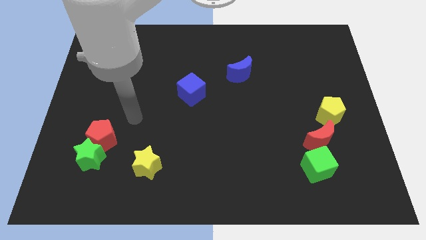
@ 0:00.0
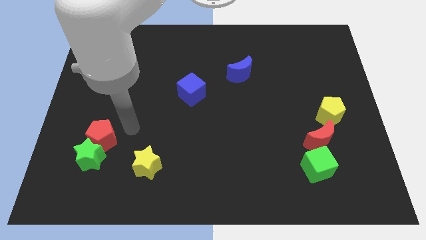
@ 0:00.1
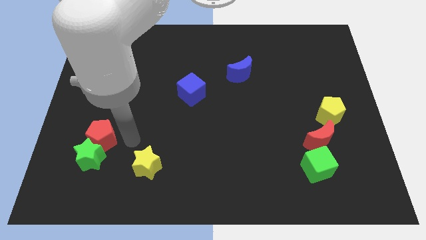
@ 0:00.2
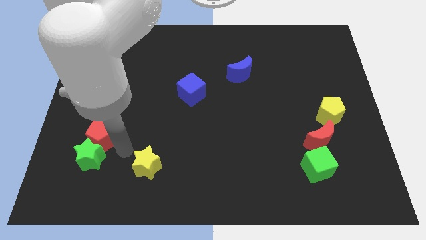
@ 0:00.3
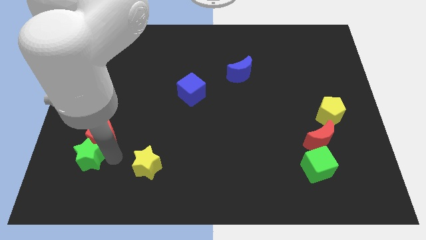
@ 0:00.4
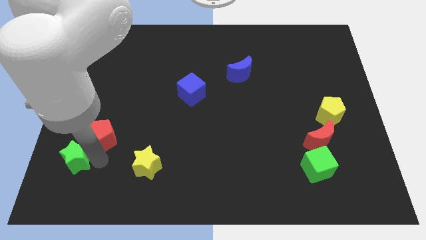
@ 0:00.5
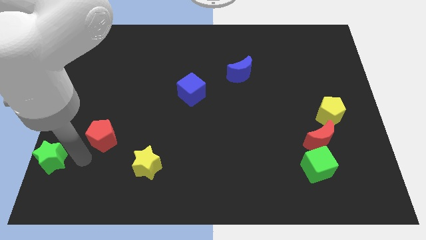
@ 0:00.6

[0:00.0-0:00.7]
separate the red pentagon from the green star

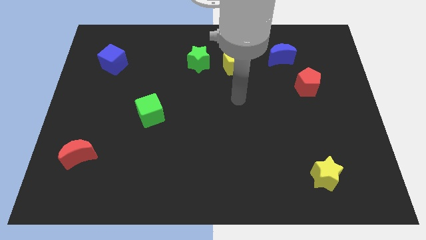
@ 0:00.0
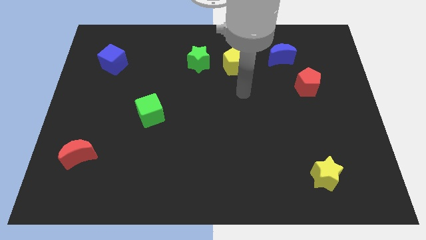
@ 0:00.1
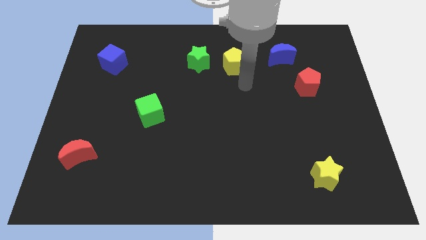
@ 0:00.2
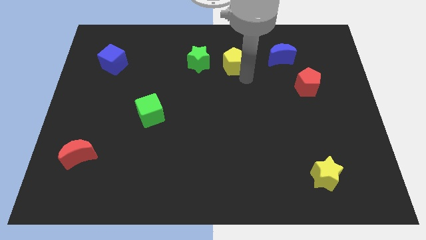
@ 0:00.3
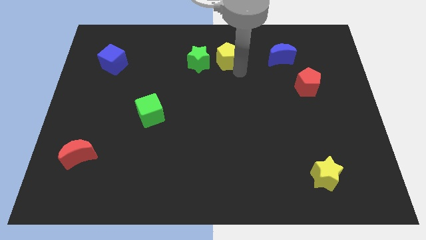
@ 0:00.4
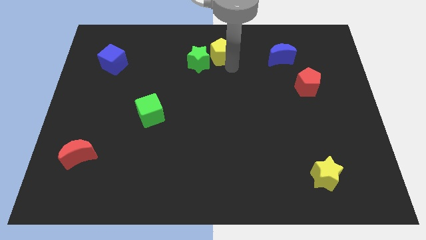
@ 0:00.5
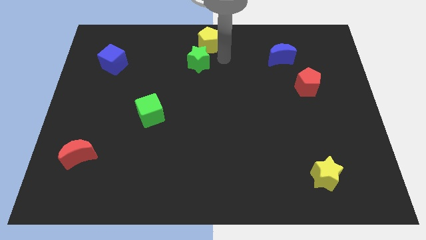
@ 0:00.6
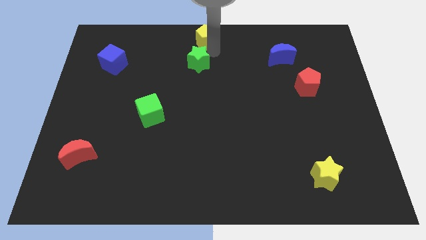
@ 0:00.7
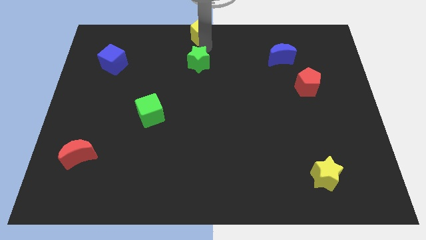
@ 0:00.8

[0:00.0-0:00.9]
move the green star away from the yellow pentagon

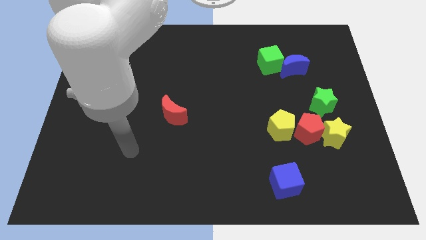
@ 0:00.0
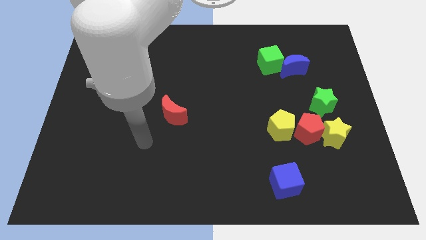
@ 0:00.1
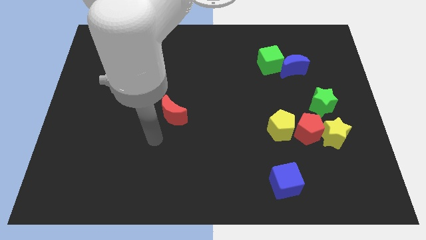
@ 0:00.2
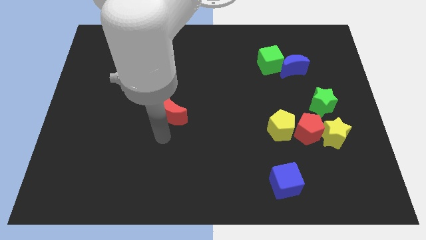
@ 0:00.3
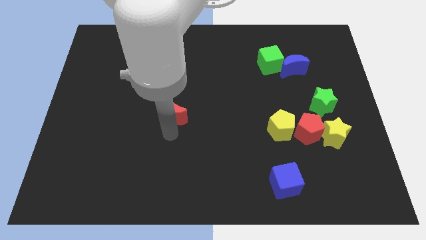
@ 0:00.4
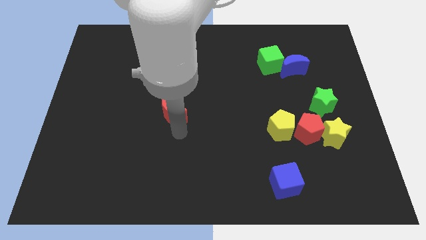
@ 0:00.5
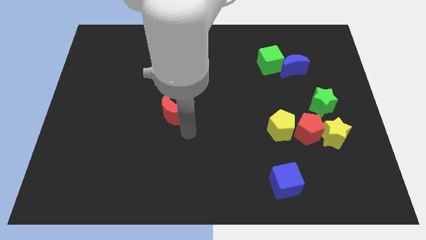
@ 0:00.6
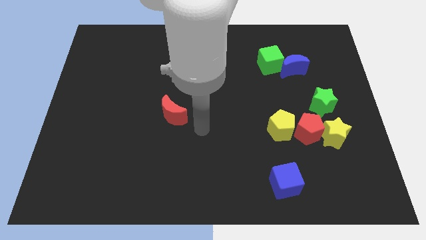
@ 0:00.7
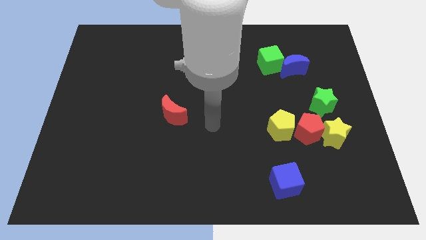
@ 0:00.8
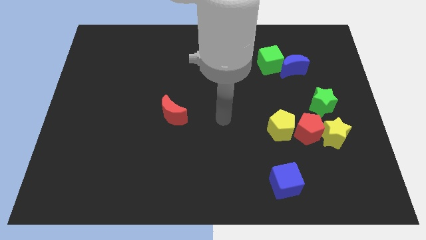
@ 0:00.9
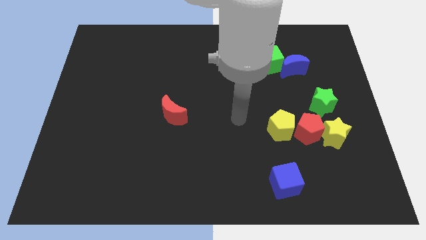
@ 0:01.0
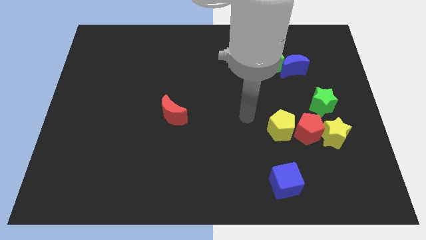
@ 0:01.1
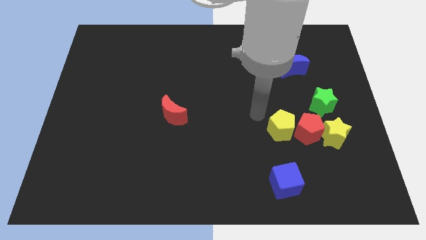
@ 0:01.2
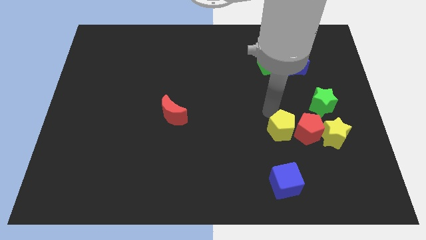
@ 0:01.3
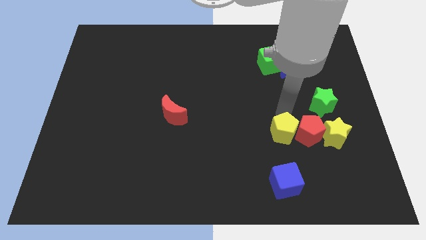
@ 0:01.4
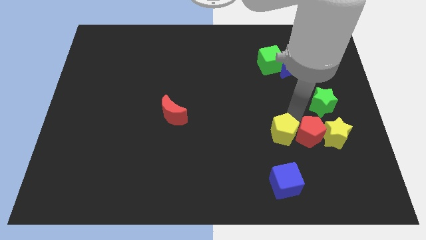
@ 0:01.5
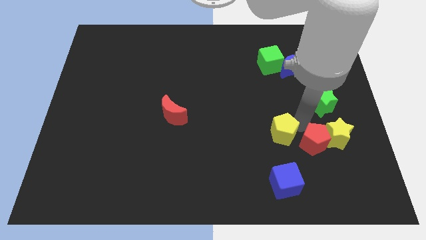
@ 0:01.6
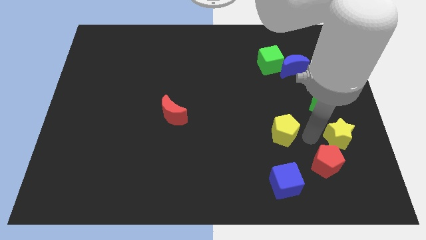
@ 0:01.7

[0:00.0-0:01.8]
pull the yellow pentagon apart from the red pentagon

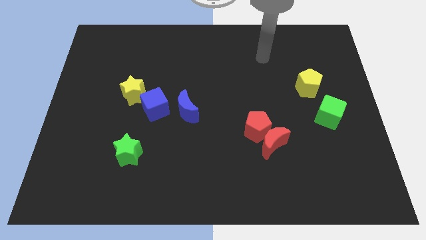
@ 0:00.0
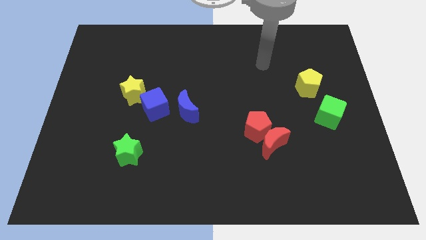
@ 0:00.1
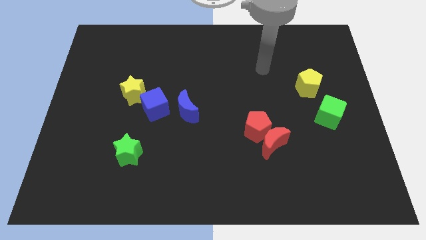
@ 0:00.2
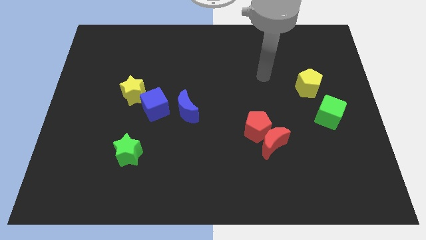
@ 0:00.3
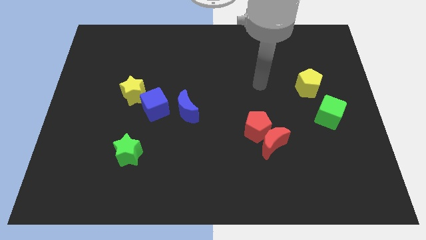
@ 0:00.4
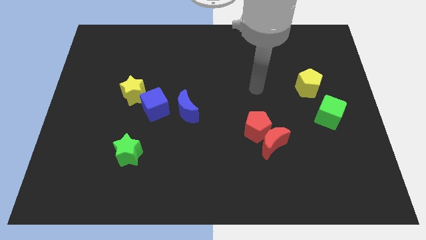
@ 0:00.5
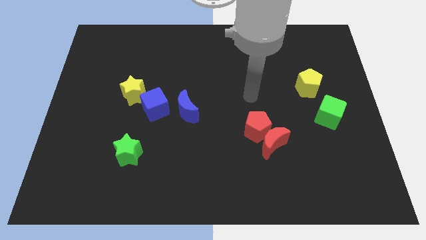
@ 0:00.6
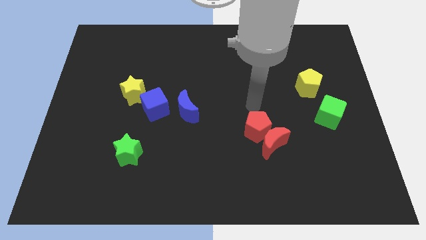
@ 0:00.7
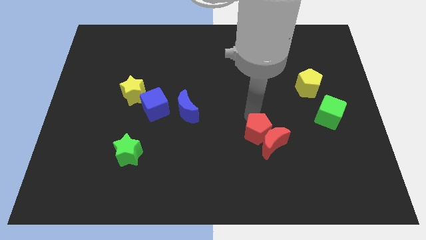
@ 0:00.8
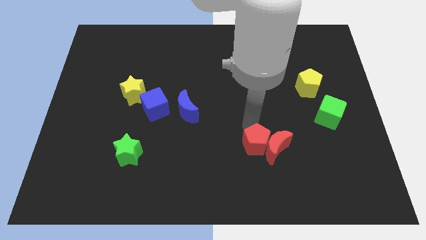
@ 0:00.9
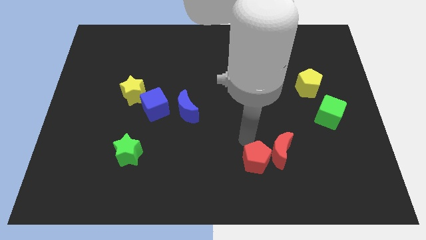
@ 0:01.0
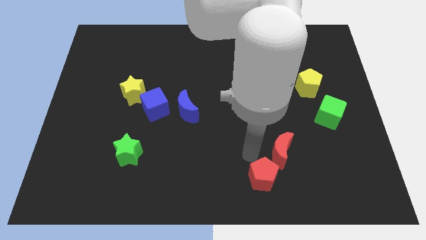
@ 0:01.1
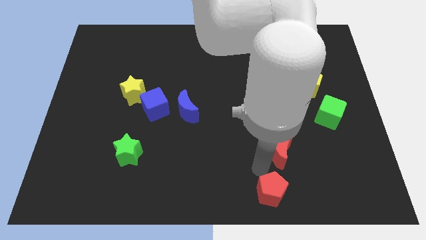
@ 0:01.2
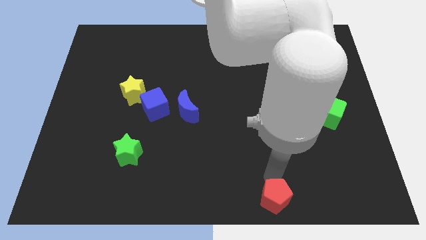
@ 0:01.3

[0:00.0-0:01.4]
separate the red moon from the red pentagon

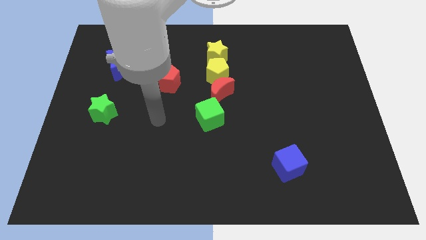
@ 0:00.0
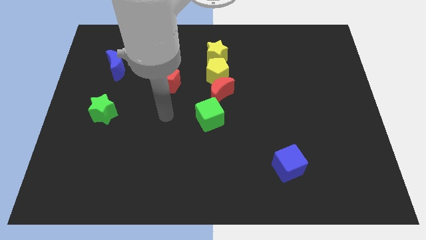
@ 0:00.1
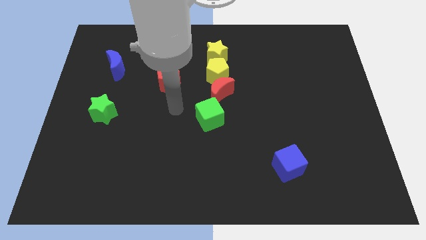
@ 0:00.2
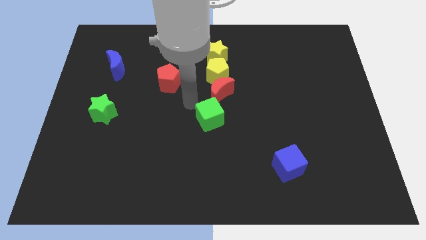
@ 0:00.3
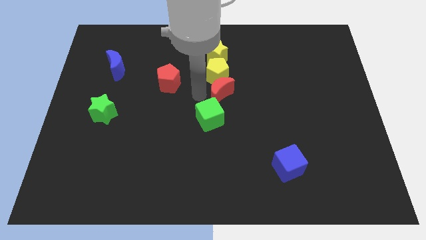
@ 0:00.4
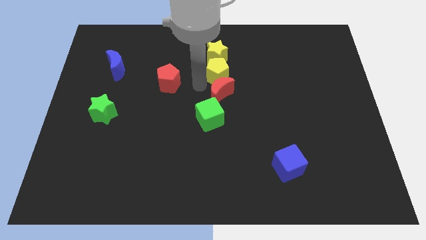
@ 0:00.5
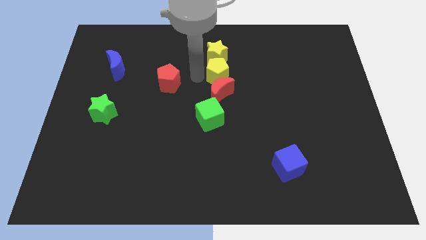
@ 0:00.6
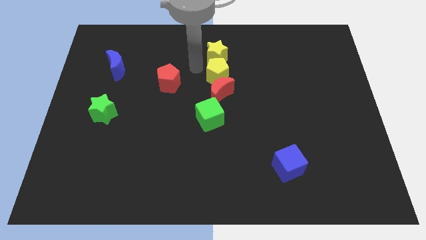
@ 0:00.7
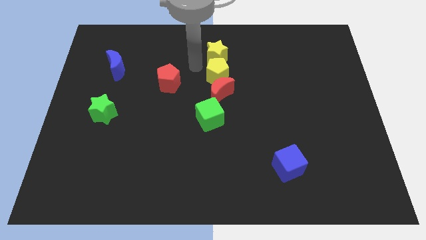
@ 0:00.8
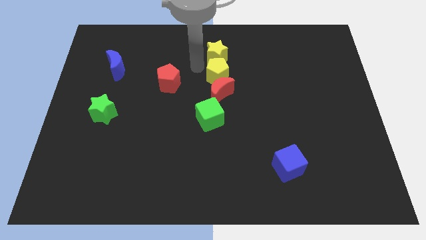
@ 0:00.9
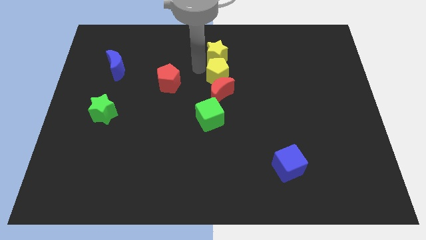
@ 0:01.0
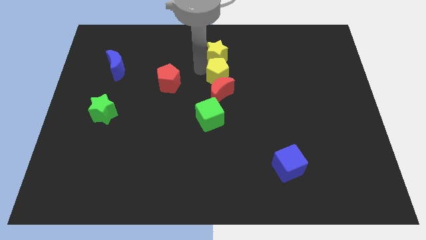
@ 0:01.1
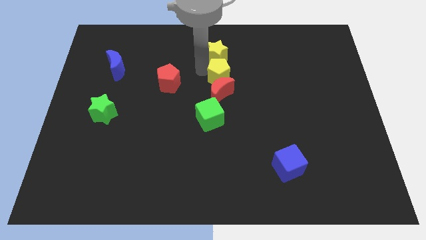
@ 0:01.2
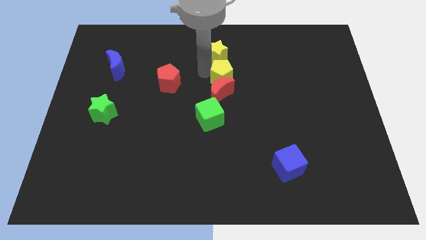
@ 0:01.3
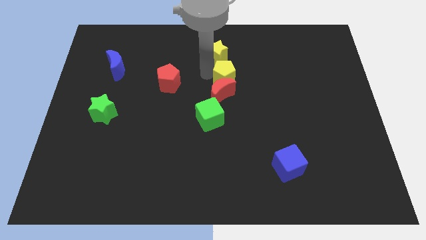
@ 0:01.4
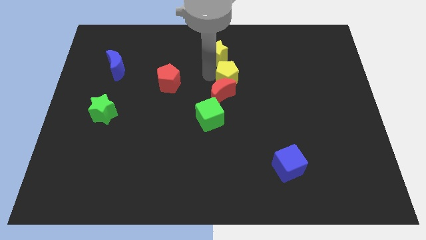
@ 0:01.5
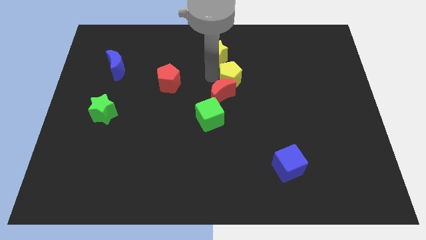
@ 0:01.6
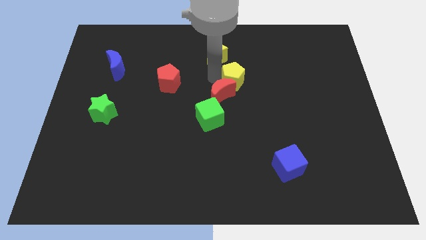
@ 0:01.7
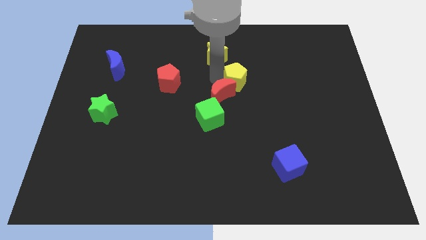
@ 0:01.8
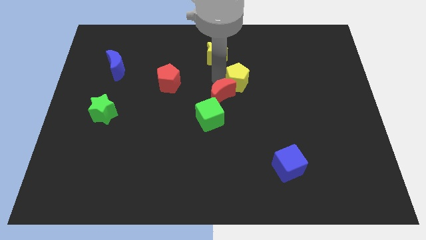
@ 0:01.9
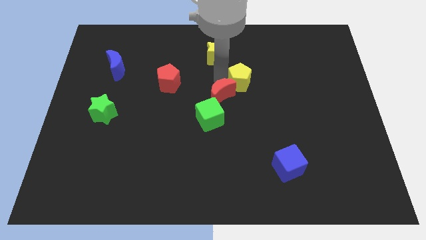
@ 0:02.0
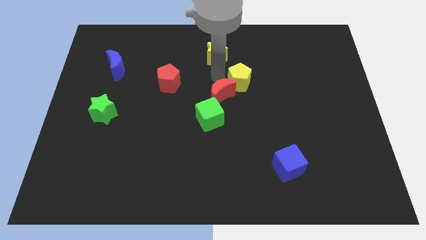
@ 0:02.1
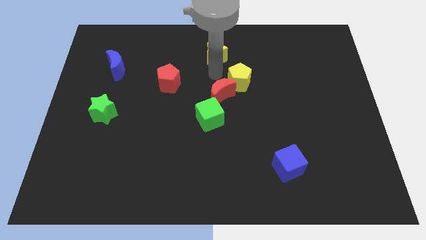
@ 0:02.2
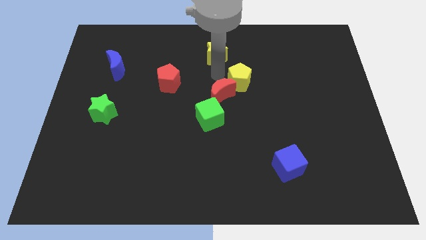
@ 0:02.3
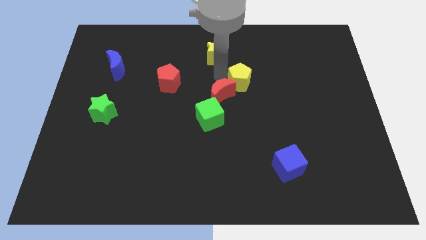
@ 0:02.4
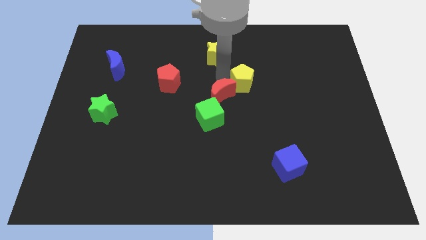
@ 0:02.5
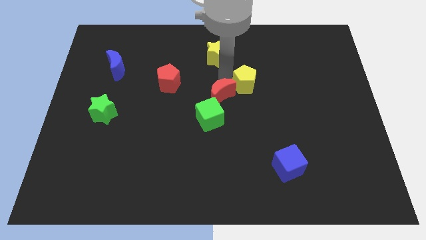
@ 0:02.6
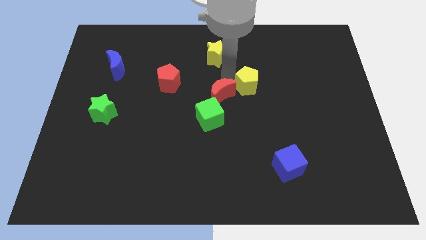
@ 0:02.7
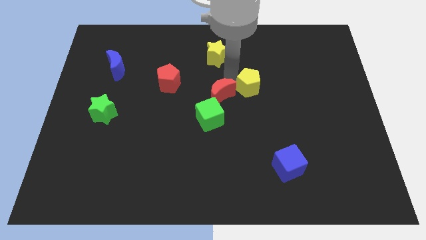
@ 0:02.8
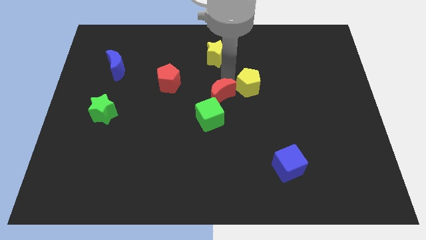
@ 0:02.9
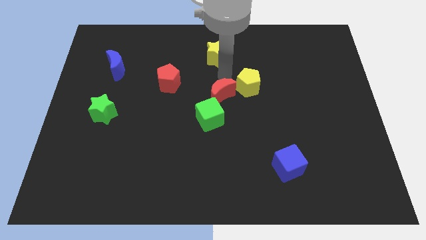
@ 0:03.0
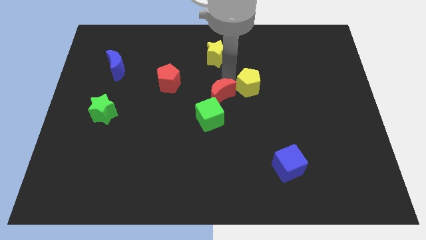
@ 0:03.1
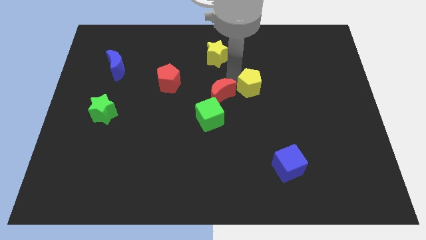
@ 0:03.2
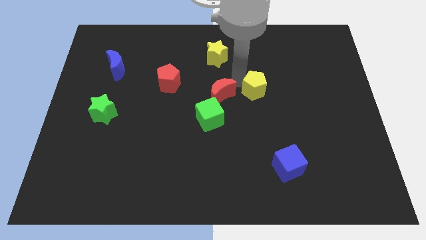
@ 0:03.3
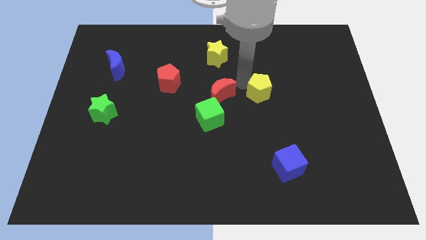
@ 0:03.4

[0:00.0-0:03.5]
pull the yellow pentagon apart from the red moon and yellow star

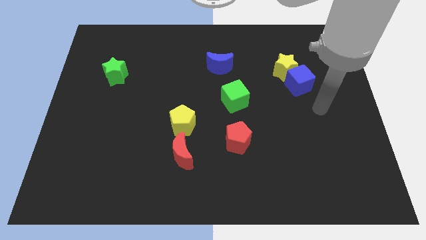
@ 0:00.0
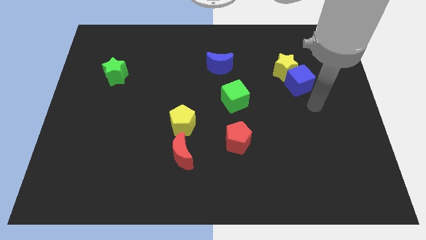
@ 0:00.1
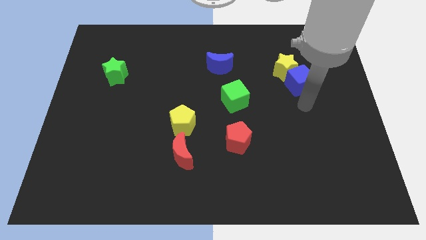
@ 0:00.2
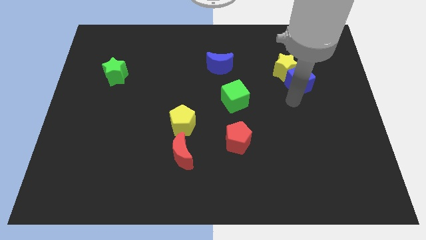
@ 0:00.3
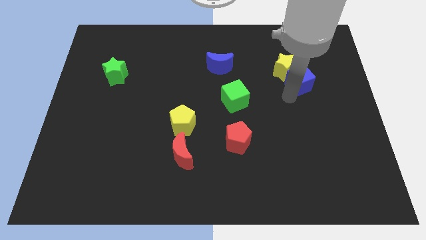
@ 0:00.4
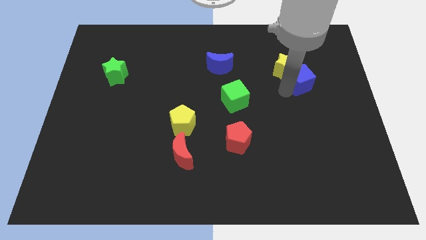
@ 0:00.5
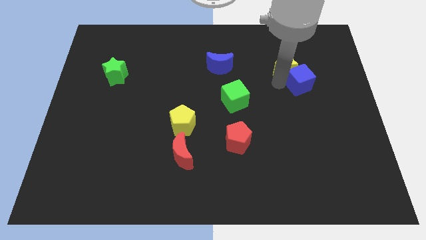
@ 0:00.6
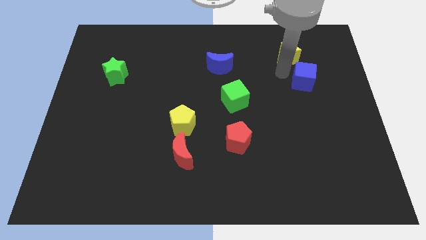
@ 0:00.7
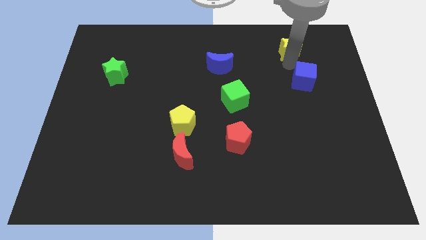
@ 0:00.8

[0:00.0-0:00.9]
separate the blue cube from the yellow star
